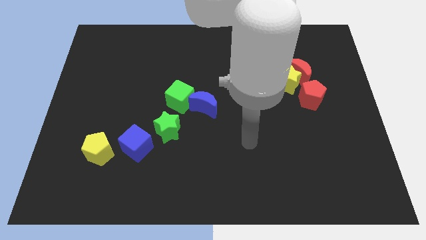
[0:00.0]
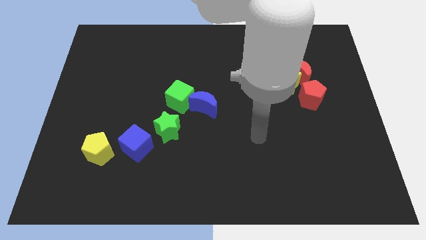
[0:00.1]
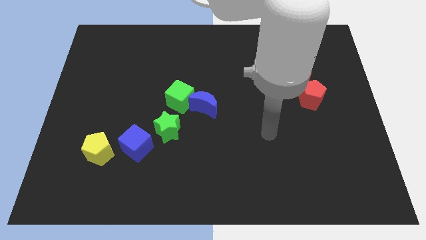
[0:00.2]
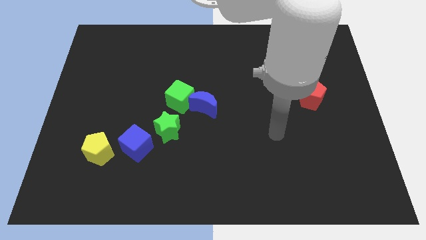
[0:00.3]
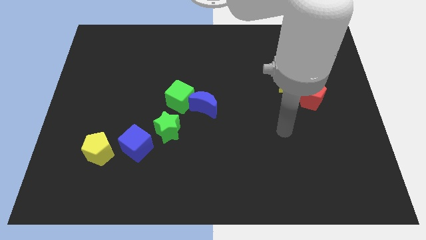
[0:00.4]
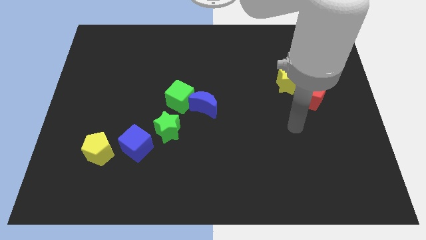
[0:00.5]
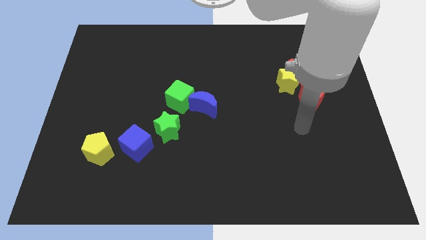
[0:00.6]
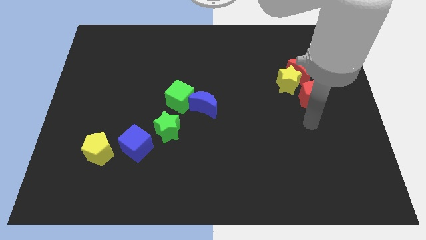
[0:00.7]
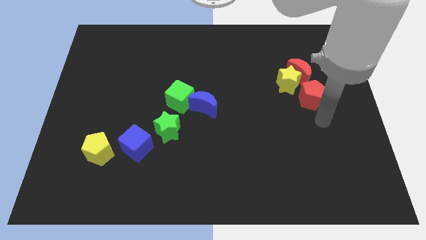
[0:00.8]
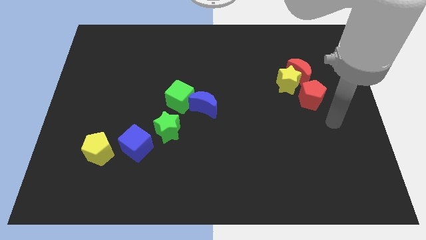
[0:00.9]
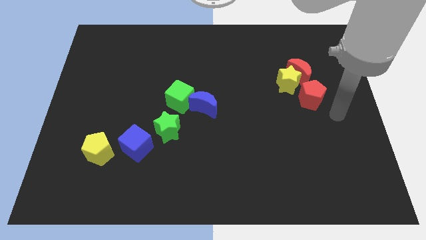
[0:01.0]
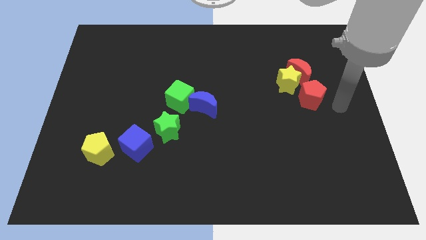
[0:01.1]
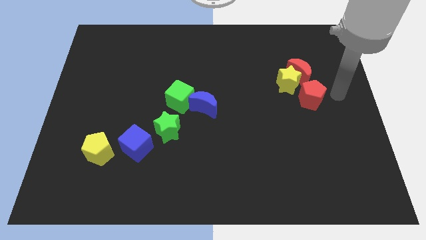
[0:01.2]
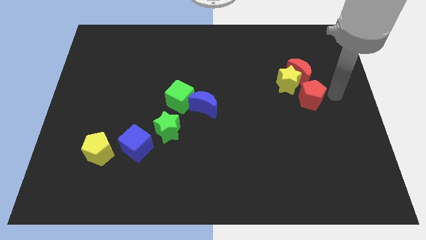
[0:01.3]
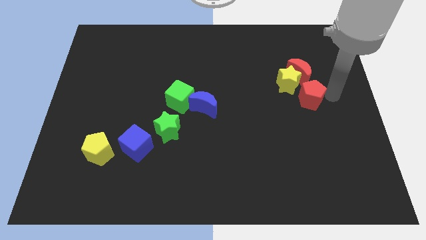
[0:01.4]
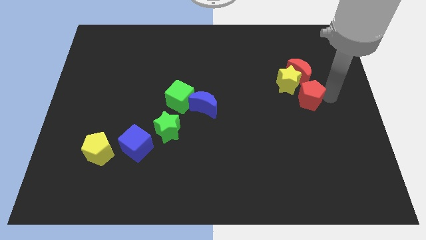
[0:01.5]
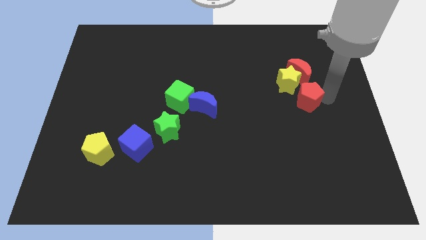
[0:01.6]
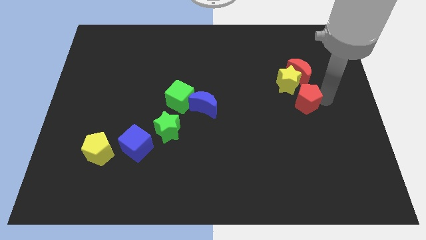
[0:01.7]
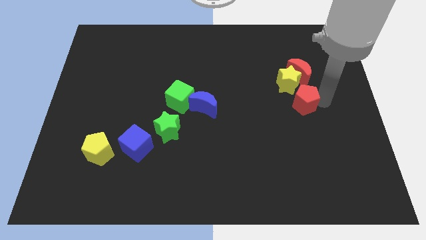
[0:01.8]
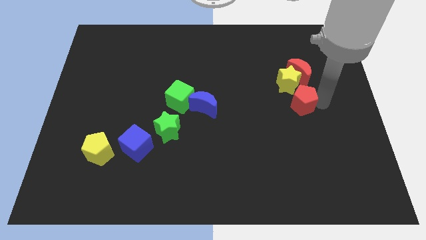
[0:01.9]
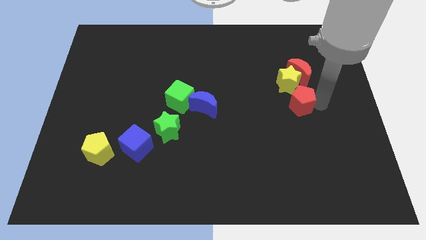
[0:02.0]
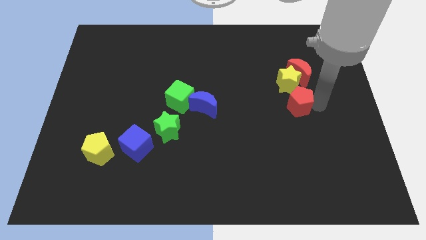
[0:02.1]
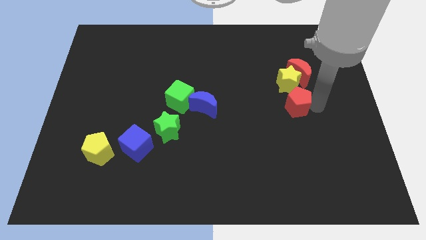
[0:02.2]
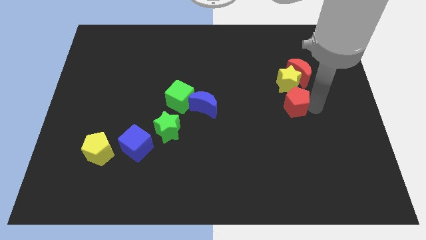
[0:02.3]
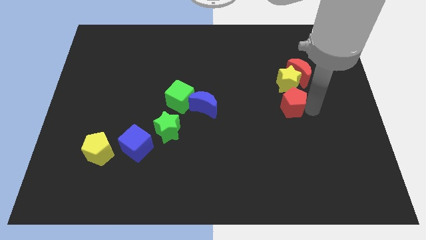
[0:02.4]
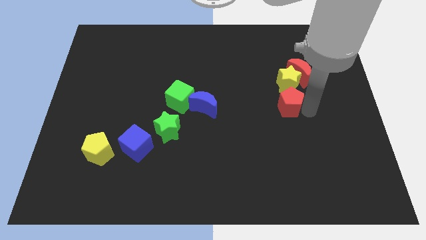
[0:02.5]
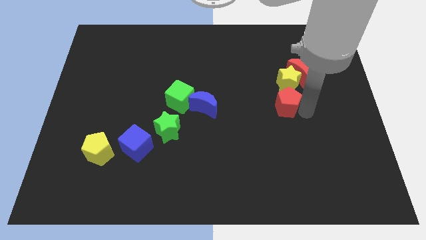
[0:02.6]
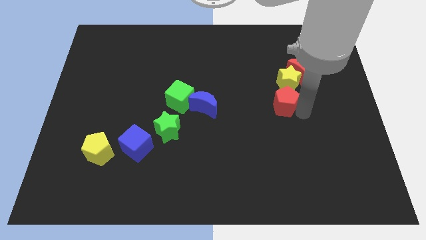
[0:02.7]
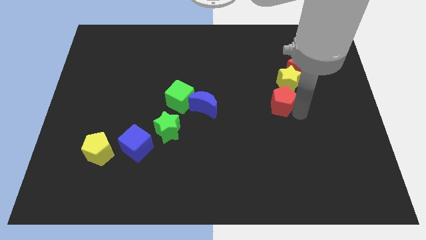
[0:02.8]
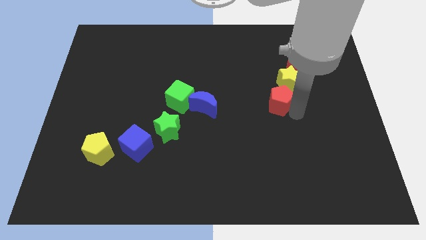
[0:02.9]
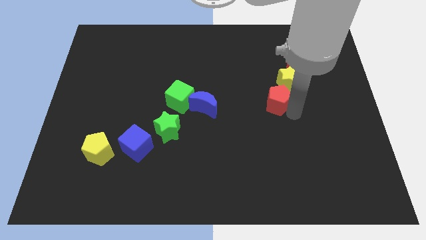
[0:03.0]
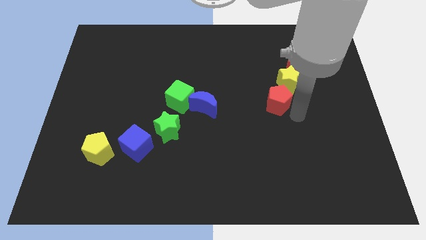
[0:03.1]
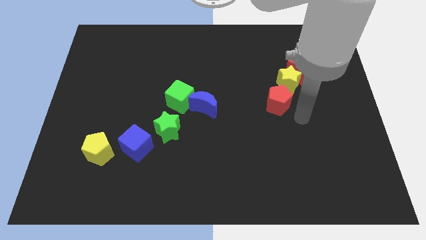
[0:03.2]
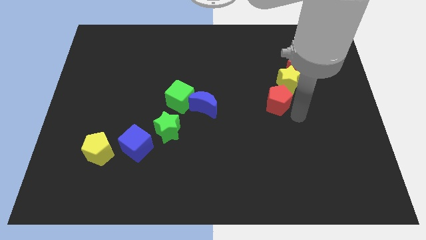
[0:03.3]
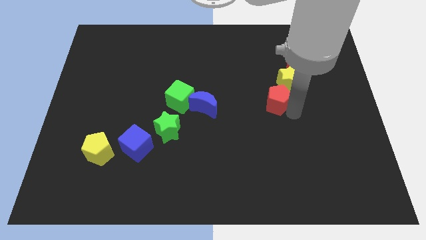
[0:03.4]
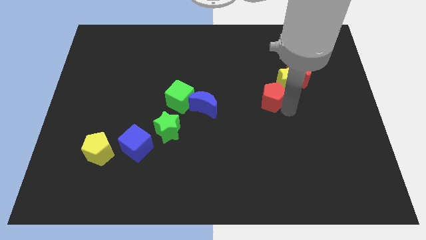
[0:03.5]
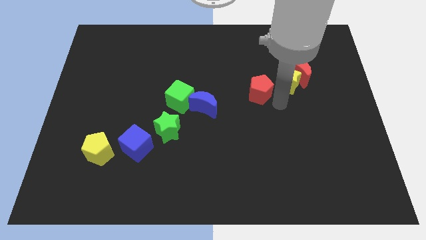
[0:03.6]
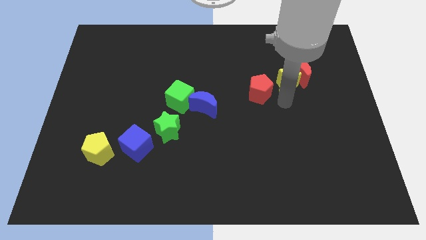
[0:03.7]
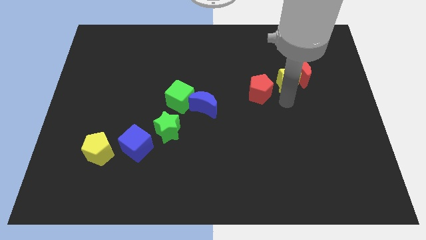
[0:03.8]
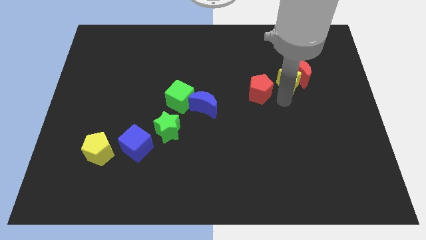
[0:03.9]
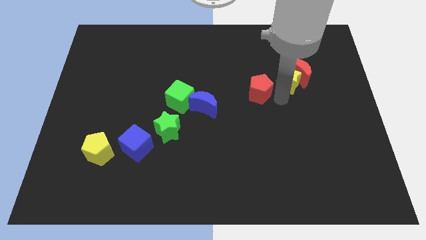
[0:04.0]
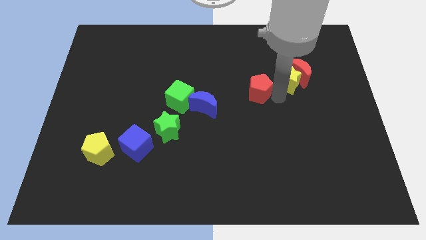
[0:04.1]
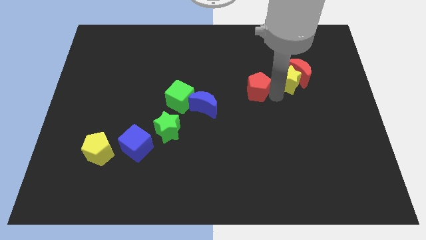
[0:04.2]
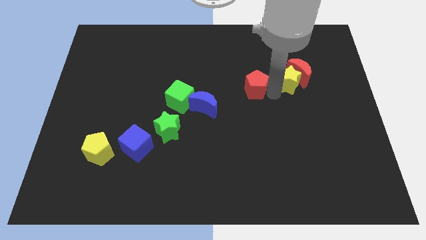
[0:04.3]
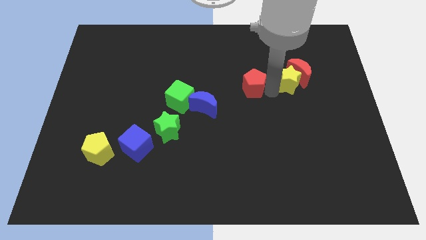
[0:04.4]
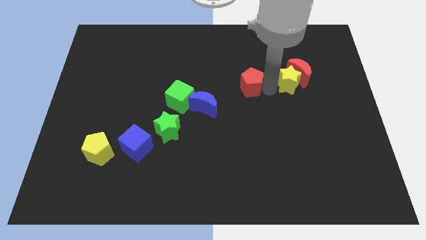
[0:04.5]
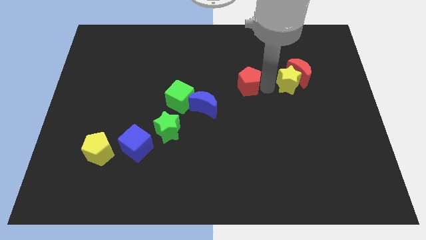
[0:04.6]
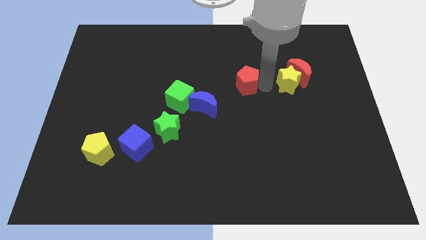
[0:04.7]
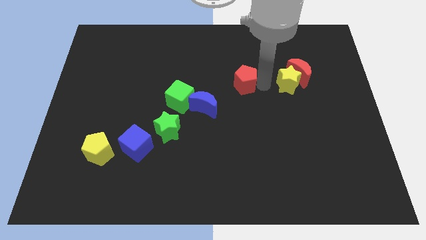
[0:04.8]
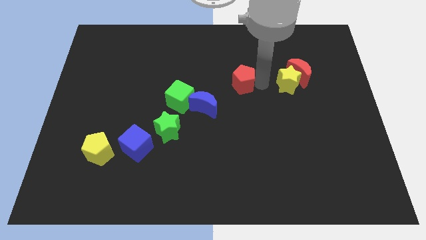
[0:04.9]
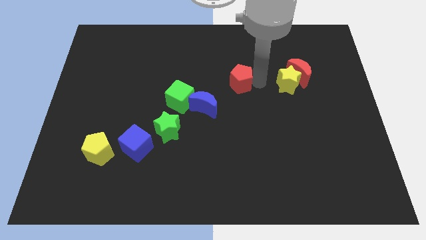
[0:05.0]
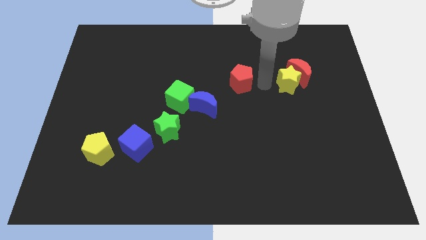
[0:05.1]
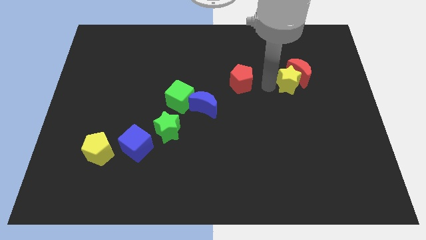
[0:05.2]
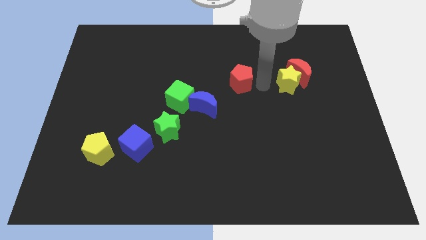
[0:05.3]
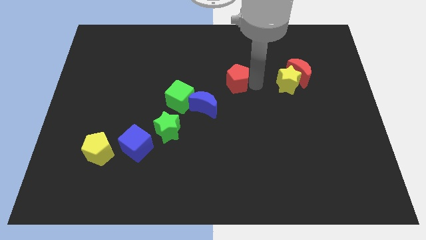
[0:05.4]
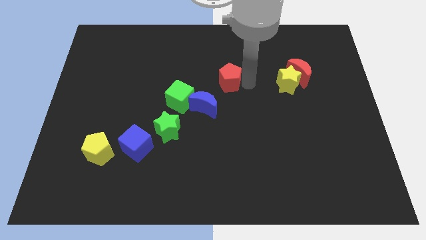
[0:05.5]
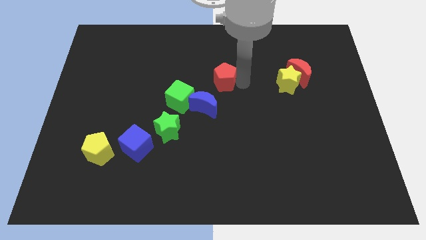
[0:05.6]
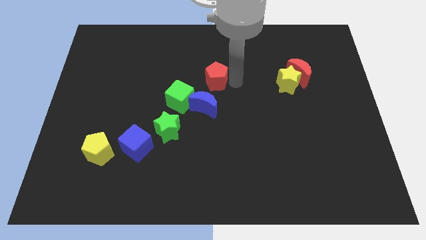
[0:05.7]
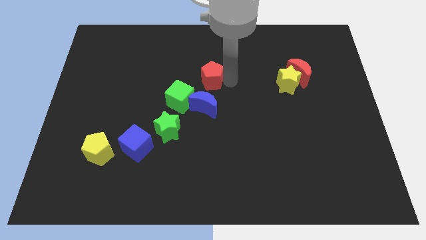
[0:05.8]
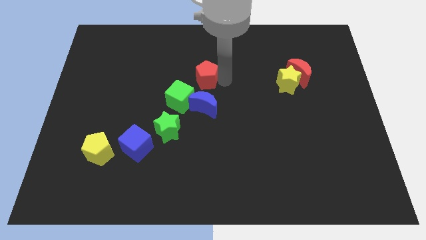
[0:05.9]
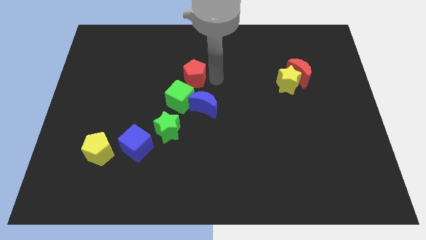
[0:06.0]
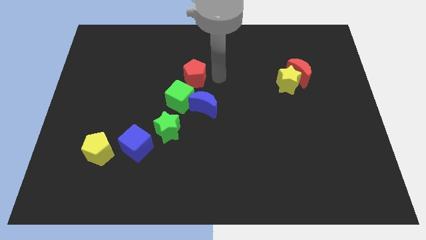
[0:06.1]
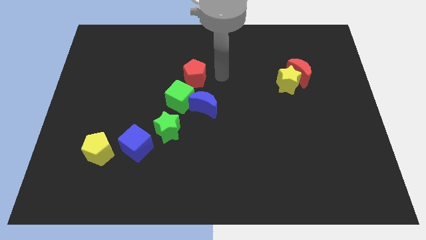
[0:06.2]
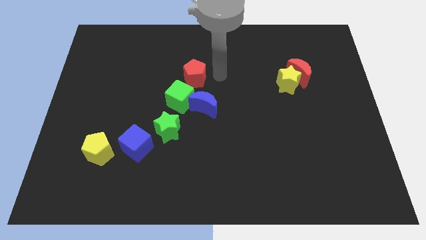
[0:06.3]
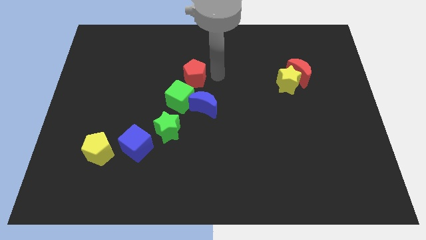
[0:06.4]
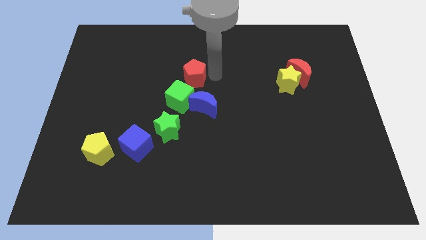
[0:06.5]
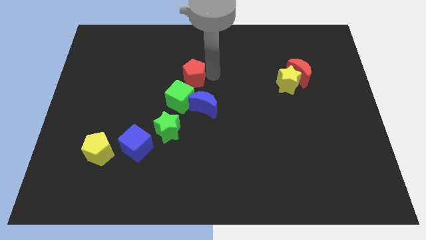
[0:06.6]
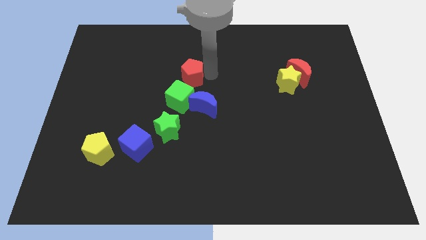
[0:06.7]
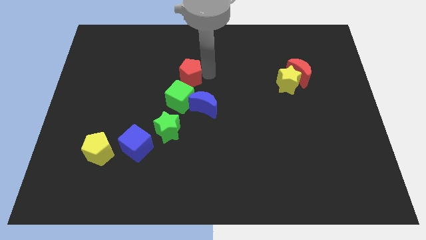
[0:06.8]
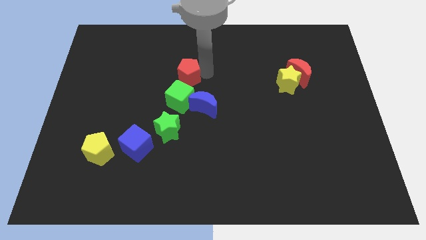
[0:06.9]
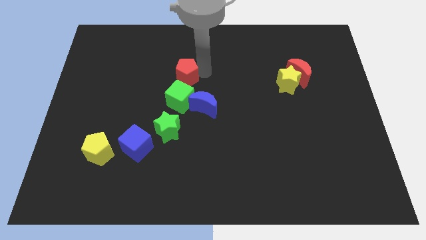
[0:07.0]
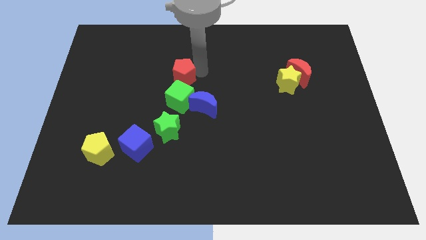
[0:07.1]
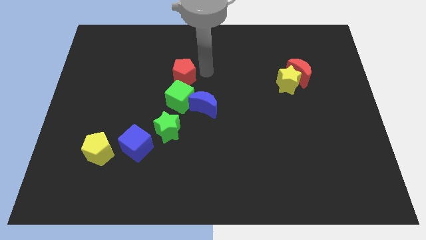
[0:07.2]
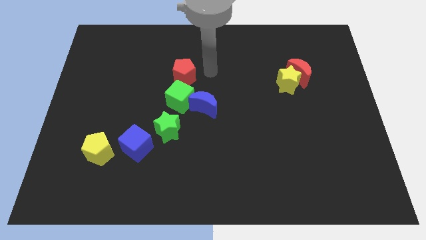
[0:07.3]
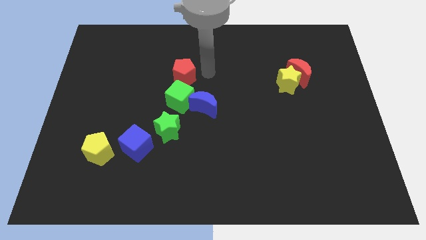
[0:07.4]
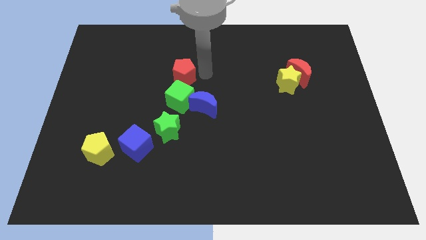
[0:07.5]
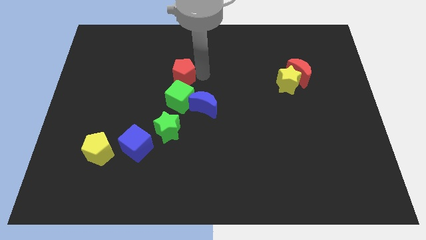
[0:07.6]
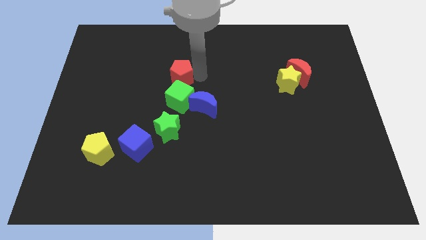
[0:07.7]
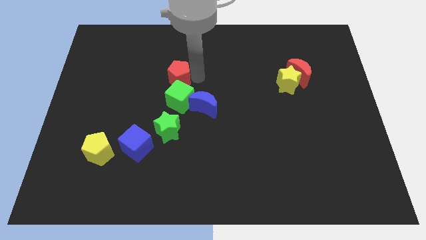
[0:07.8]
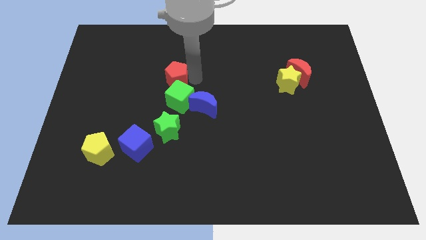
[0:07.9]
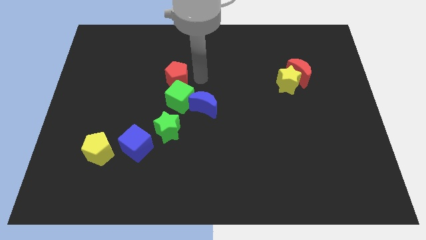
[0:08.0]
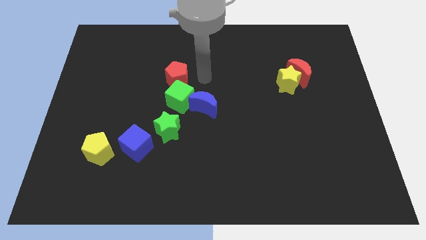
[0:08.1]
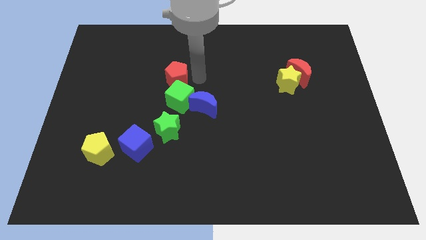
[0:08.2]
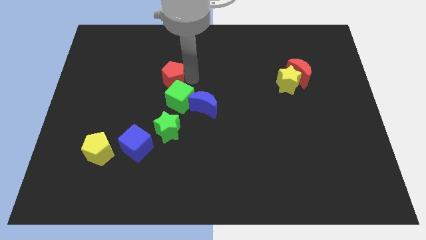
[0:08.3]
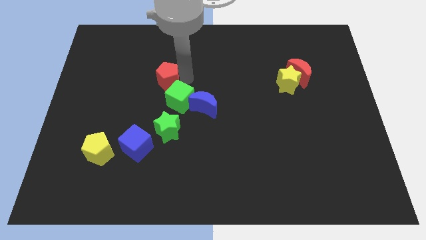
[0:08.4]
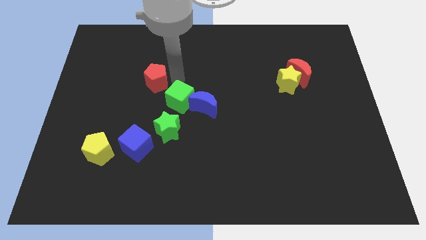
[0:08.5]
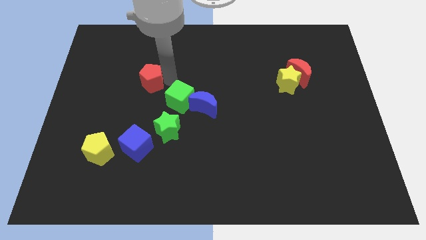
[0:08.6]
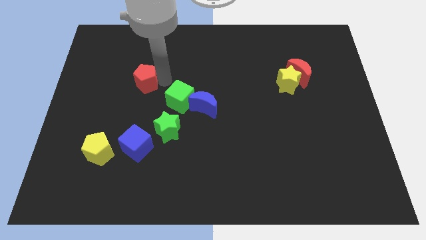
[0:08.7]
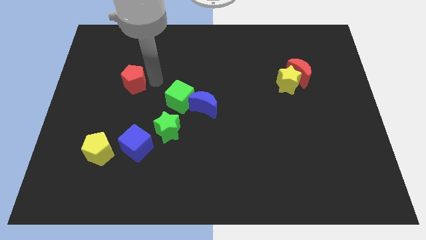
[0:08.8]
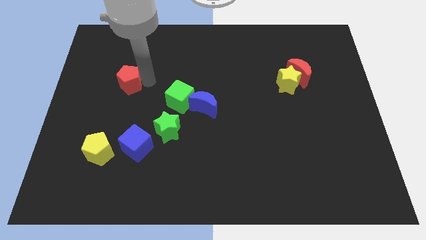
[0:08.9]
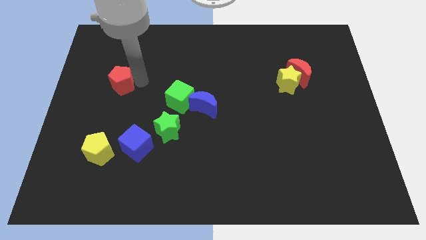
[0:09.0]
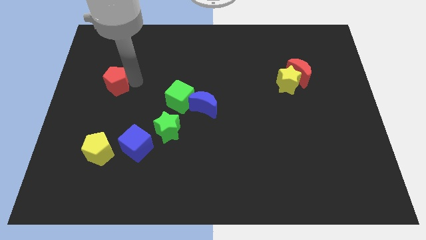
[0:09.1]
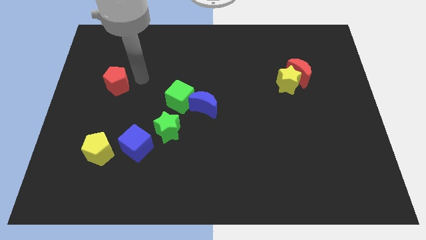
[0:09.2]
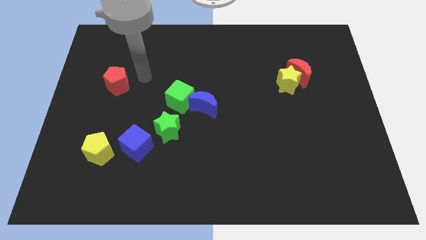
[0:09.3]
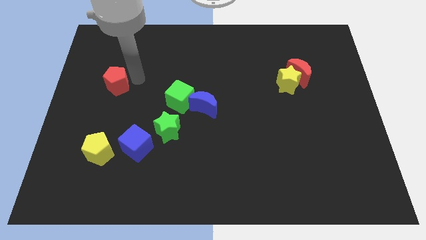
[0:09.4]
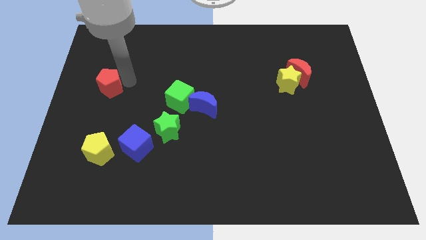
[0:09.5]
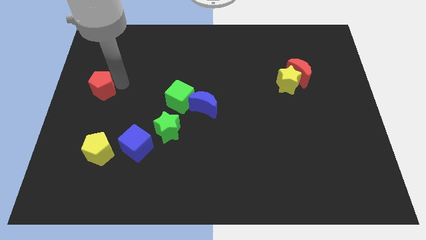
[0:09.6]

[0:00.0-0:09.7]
push the red pentagon to the left side
